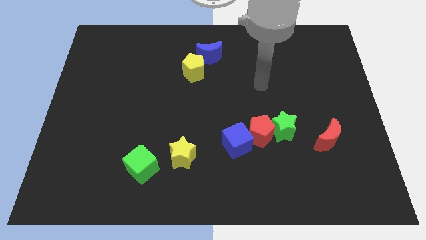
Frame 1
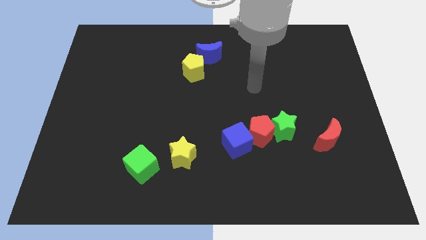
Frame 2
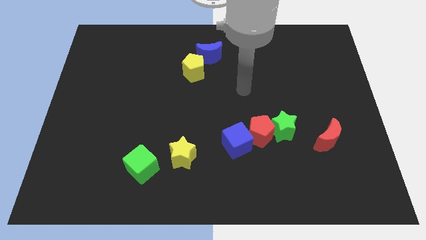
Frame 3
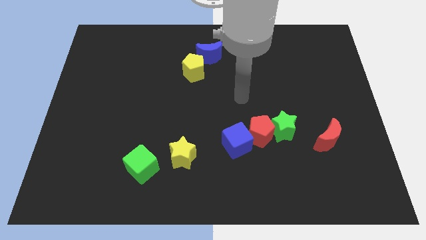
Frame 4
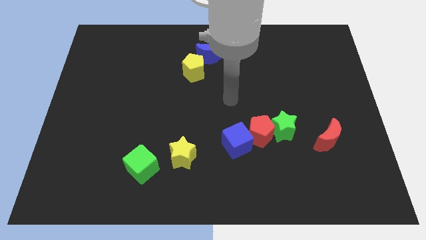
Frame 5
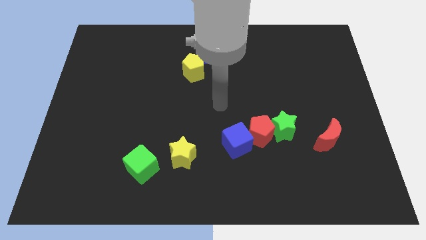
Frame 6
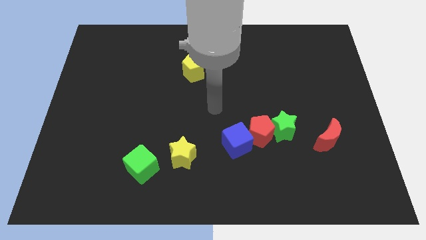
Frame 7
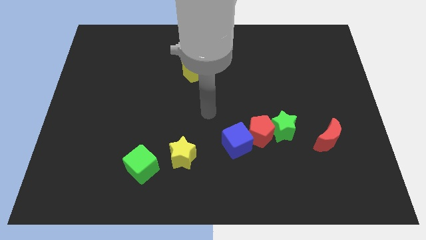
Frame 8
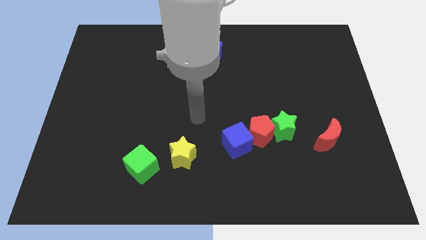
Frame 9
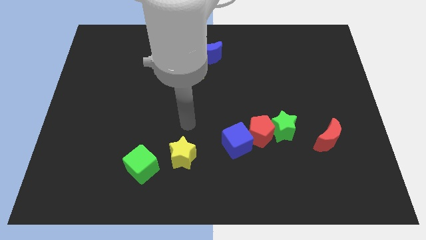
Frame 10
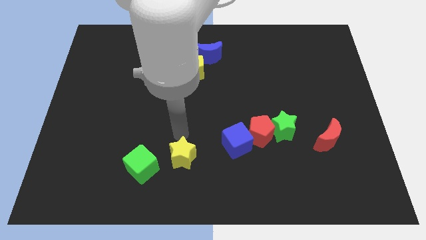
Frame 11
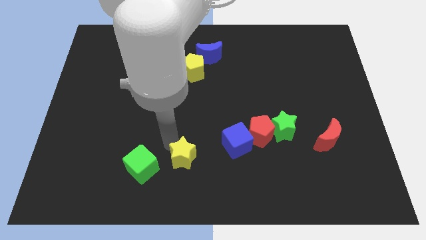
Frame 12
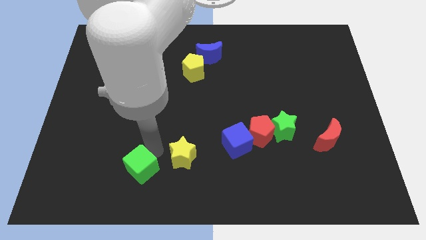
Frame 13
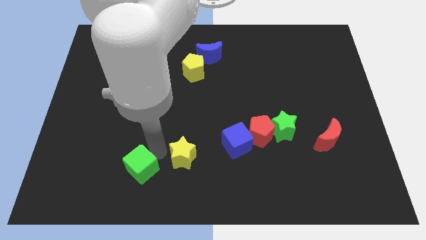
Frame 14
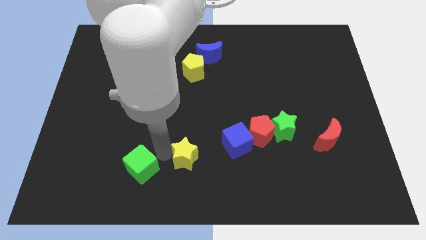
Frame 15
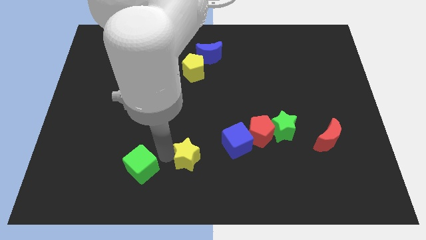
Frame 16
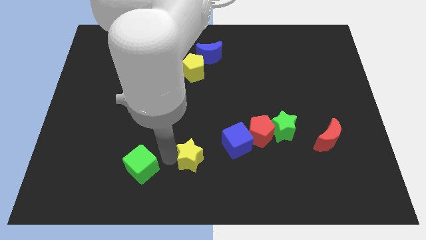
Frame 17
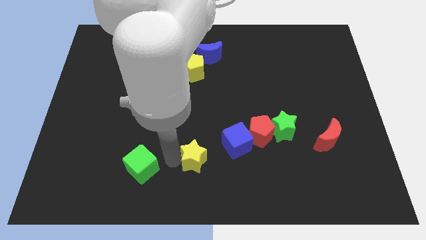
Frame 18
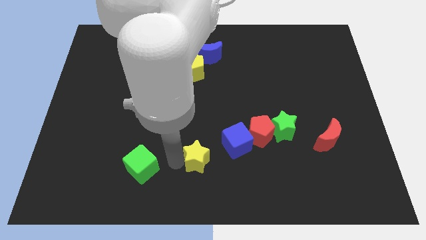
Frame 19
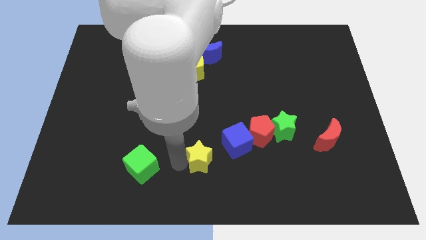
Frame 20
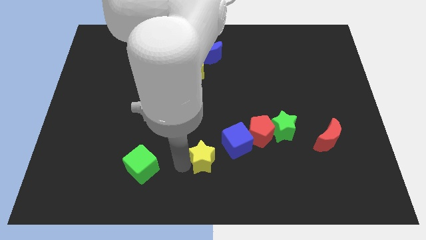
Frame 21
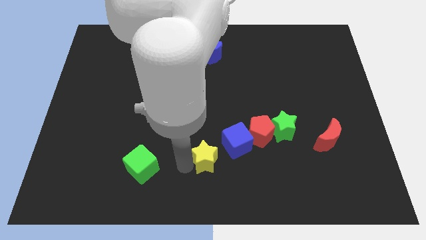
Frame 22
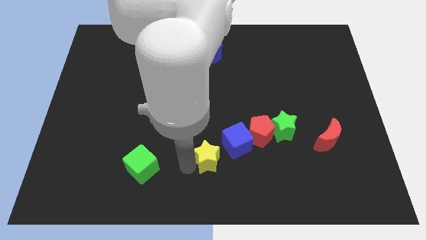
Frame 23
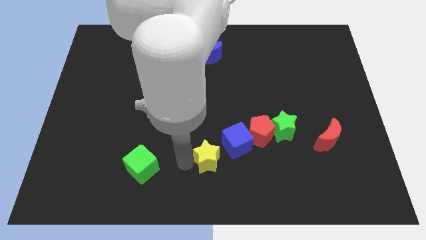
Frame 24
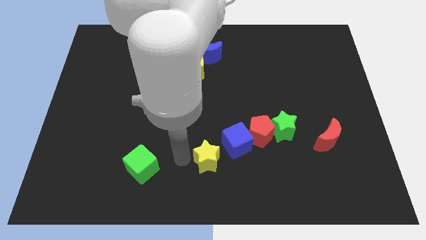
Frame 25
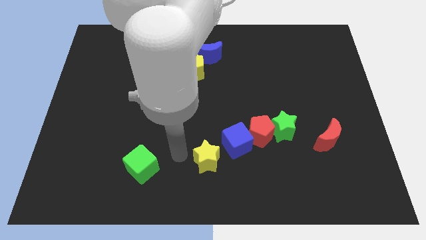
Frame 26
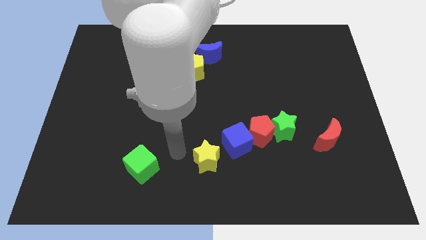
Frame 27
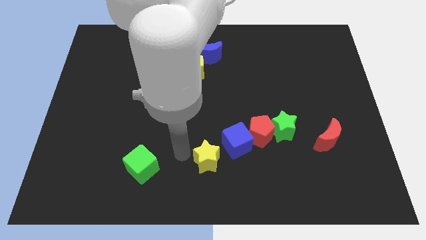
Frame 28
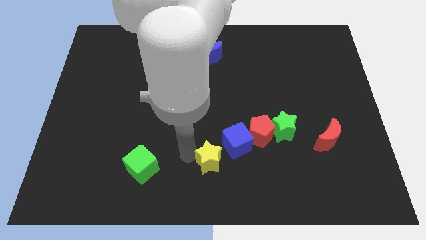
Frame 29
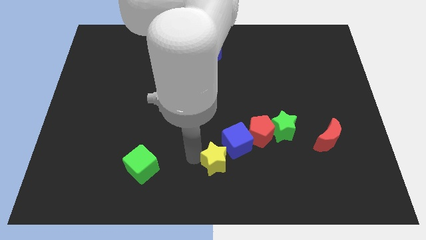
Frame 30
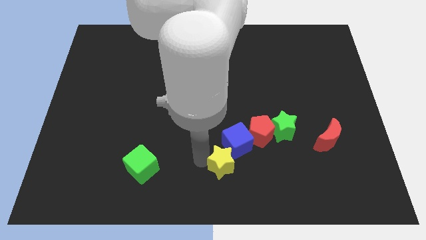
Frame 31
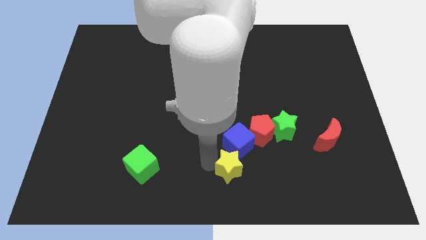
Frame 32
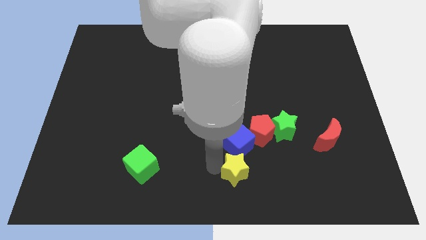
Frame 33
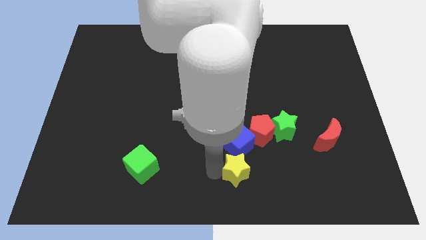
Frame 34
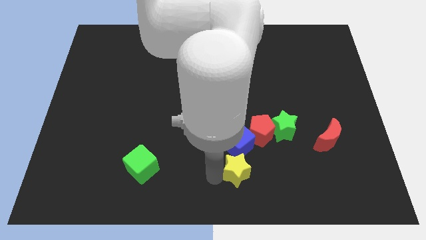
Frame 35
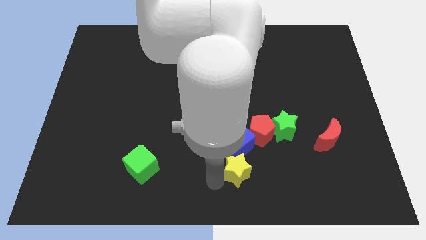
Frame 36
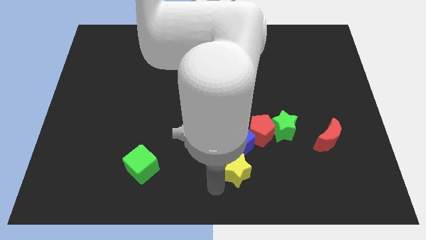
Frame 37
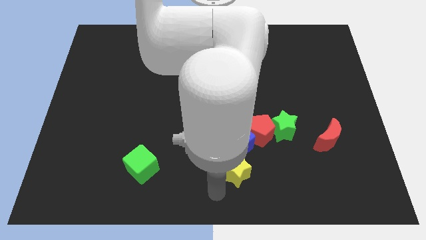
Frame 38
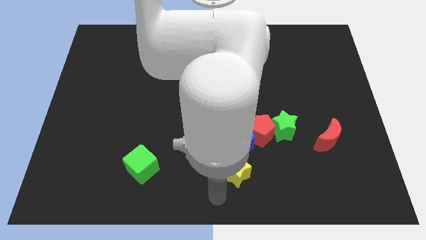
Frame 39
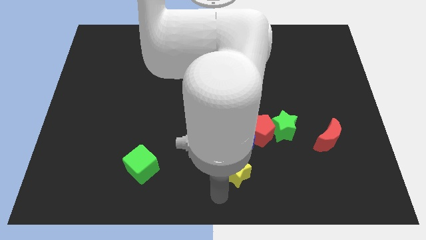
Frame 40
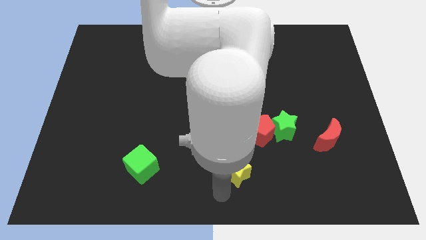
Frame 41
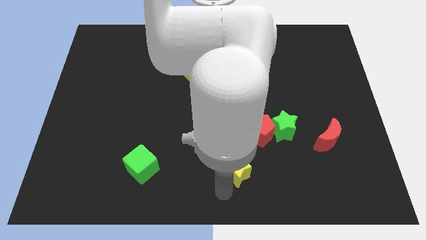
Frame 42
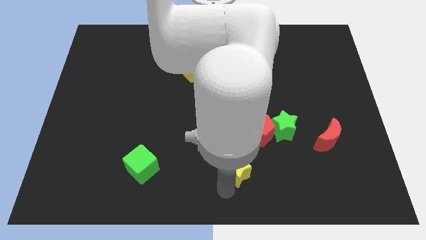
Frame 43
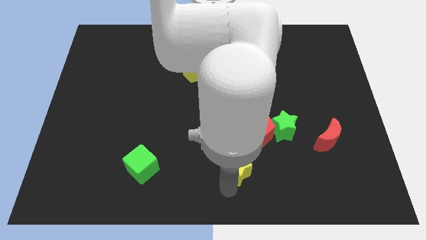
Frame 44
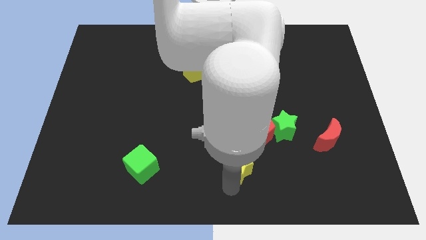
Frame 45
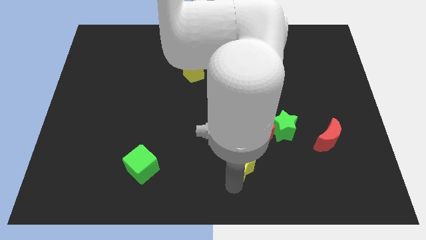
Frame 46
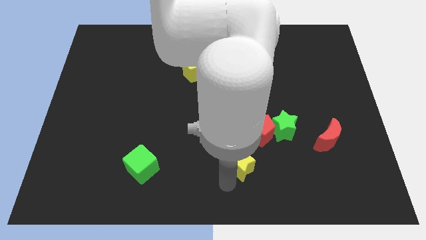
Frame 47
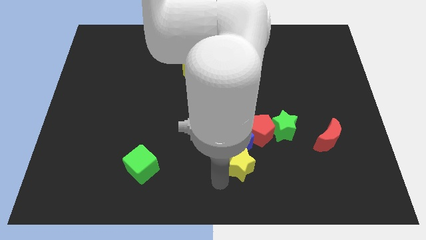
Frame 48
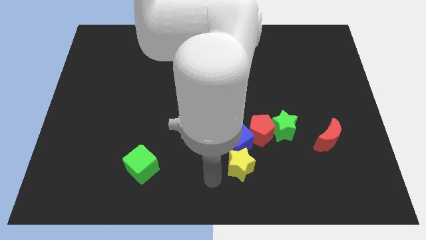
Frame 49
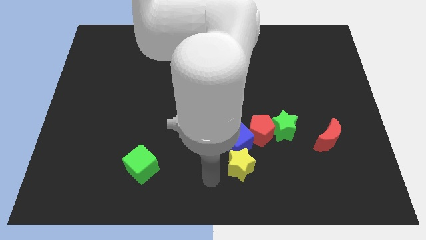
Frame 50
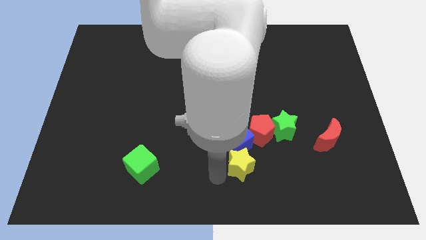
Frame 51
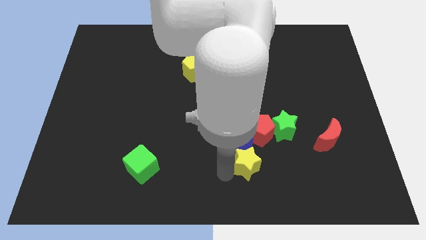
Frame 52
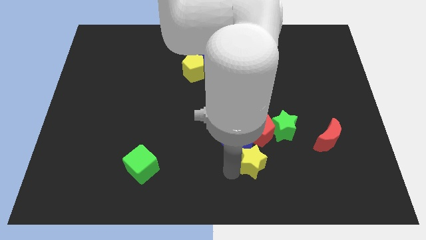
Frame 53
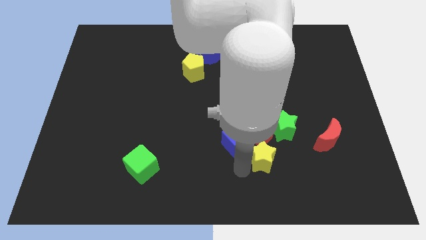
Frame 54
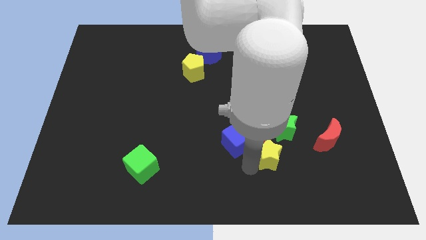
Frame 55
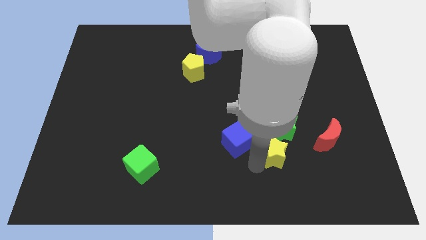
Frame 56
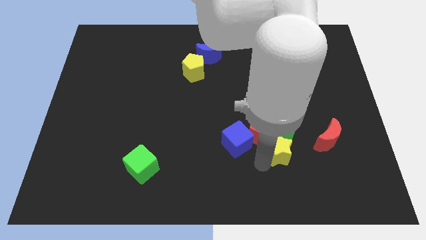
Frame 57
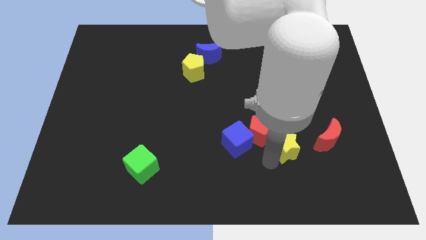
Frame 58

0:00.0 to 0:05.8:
slide the yellow star close to the green star
